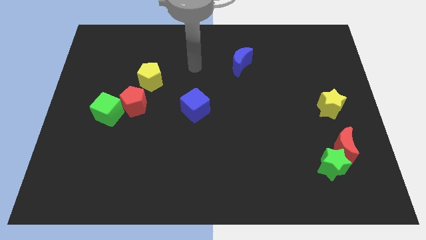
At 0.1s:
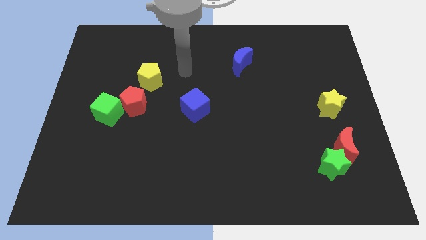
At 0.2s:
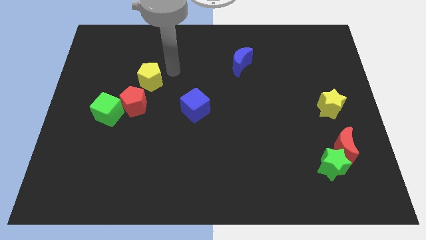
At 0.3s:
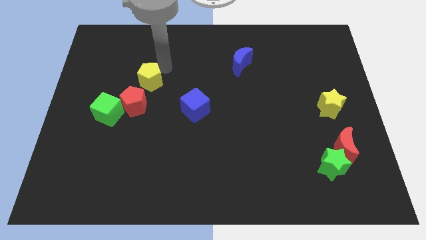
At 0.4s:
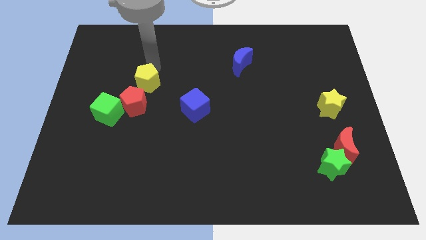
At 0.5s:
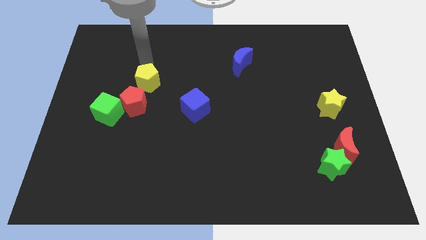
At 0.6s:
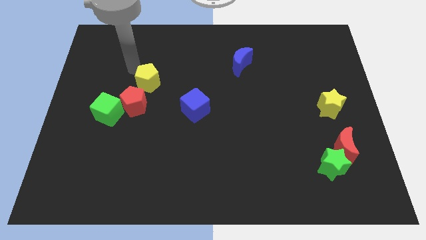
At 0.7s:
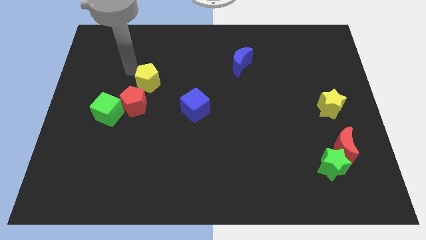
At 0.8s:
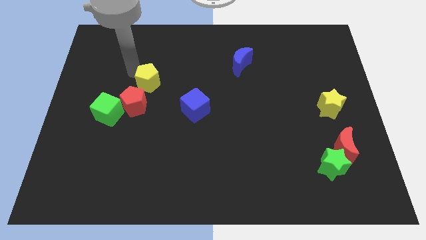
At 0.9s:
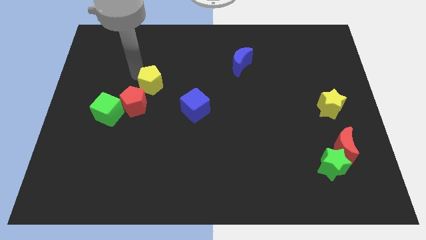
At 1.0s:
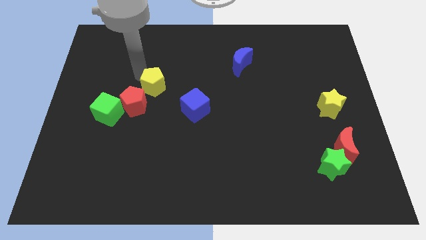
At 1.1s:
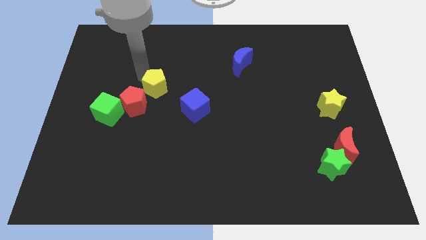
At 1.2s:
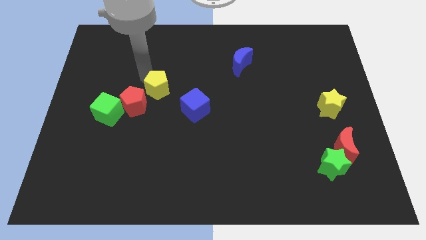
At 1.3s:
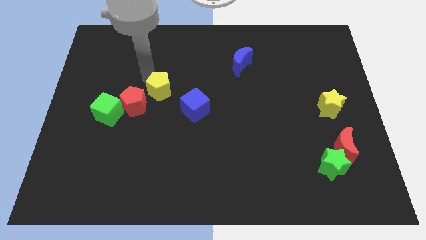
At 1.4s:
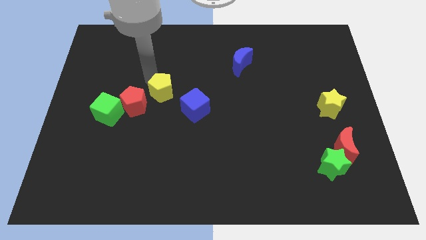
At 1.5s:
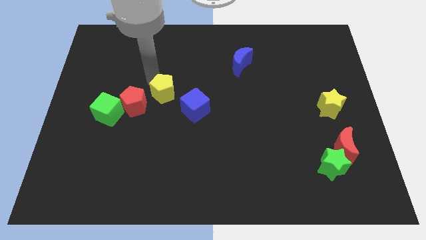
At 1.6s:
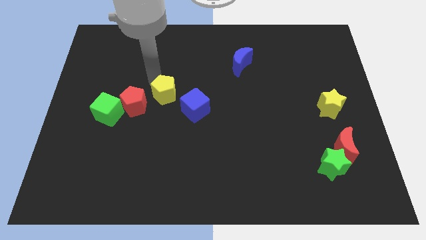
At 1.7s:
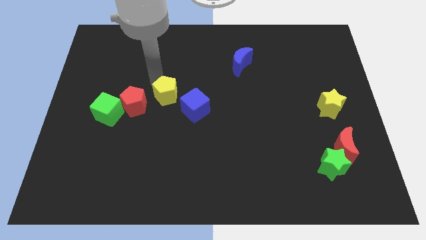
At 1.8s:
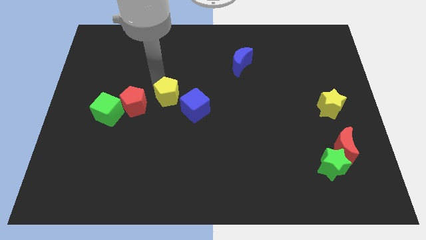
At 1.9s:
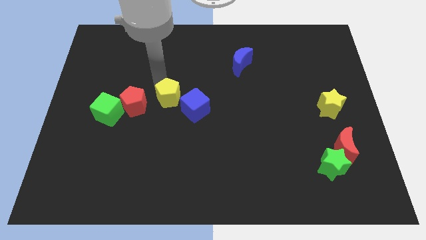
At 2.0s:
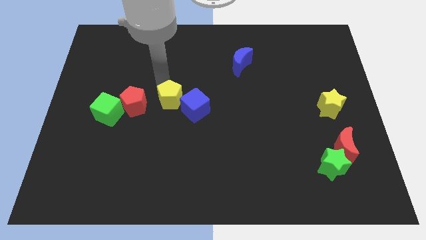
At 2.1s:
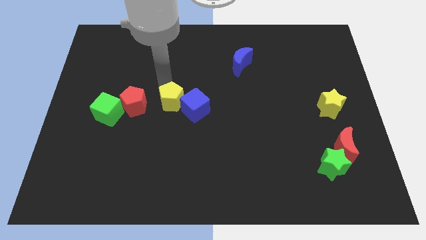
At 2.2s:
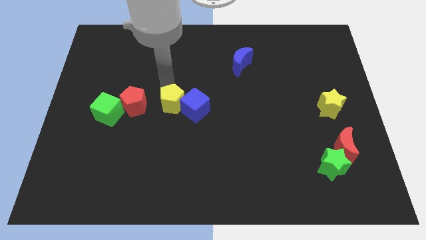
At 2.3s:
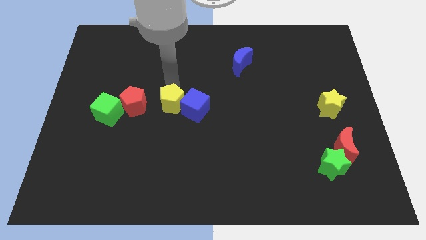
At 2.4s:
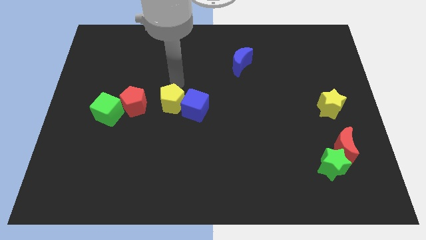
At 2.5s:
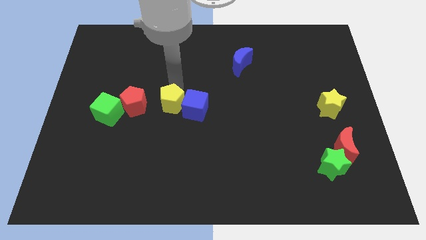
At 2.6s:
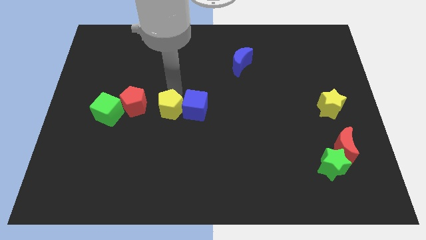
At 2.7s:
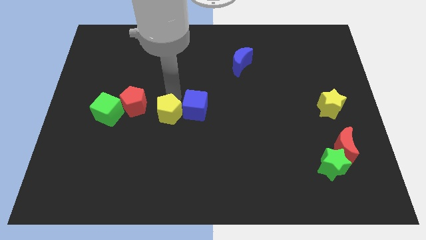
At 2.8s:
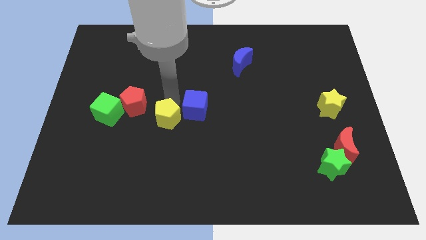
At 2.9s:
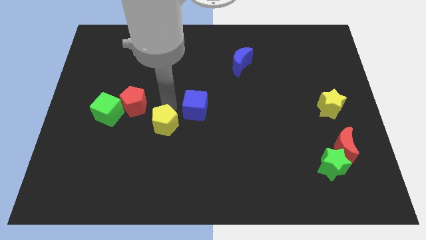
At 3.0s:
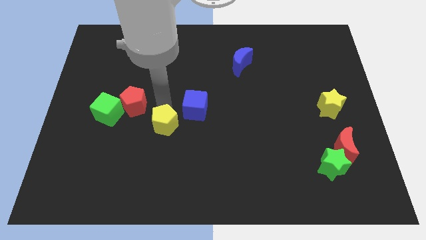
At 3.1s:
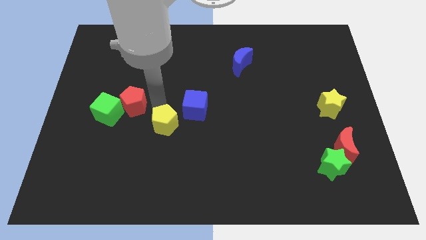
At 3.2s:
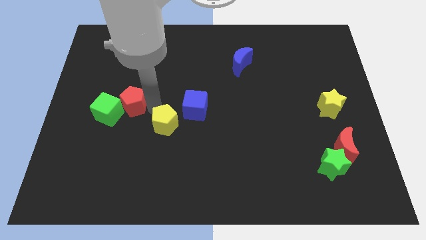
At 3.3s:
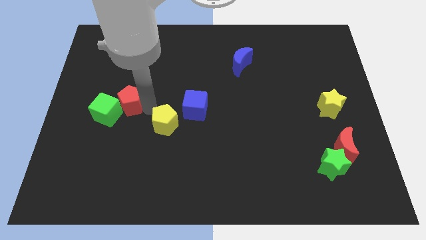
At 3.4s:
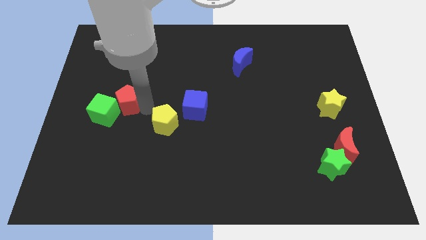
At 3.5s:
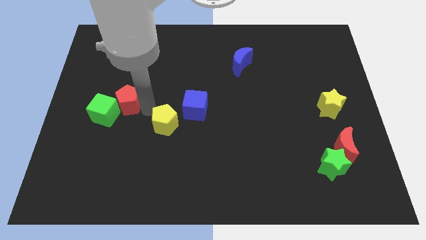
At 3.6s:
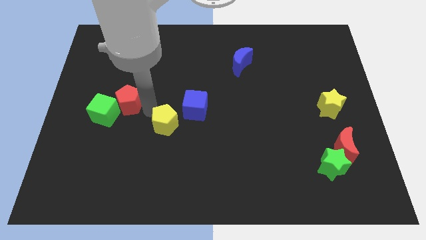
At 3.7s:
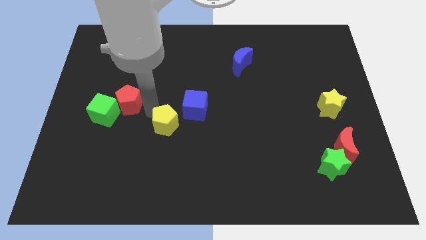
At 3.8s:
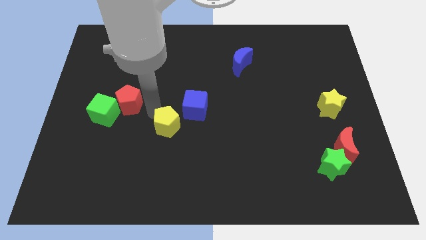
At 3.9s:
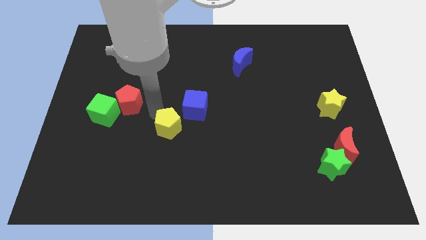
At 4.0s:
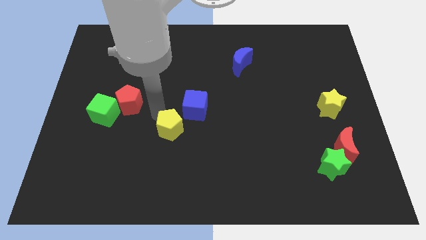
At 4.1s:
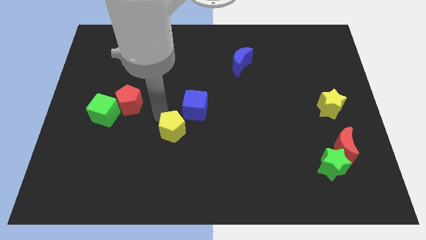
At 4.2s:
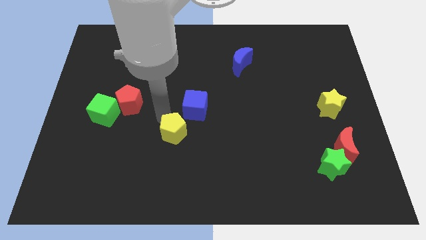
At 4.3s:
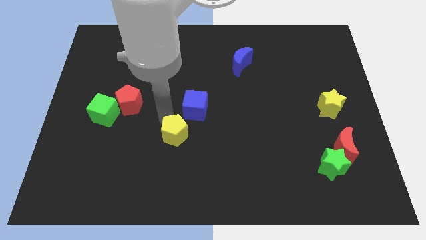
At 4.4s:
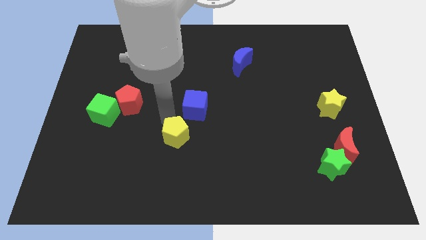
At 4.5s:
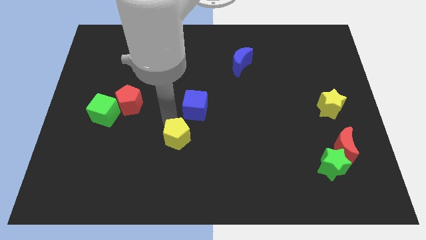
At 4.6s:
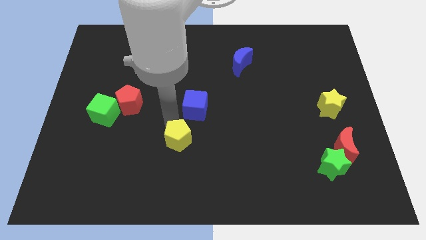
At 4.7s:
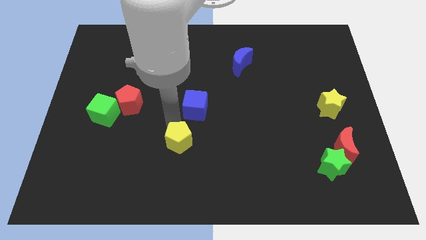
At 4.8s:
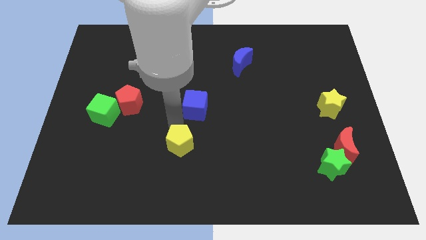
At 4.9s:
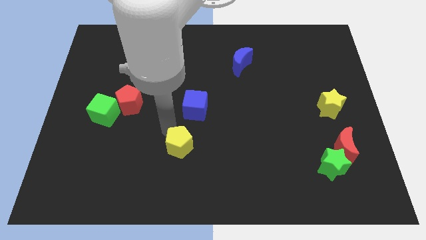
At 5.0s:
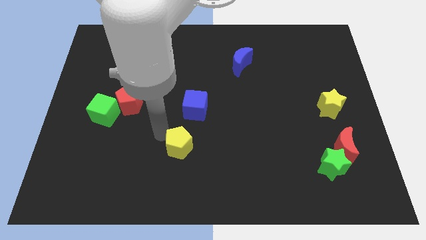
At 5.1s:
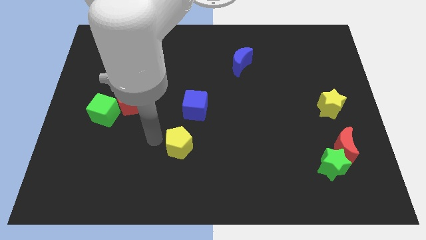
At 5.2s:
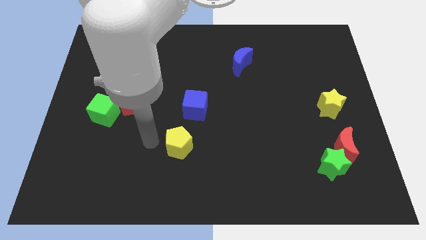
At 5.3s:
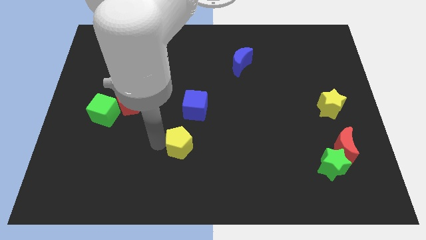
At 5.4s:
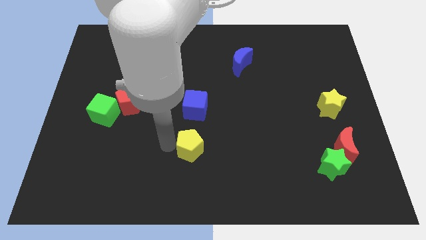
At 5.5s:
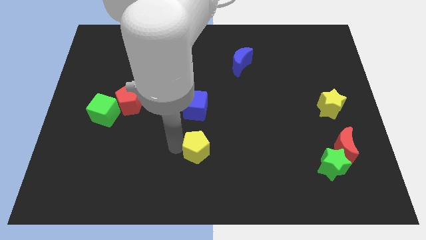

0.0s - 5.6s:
move the yellow pentagon down and right

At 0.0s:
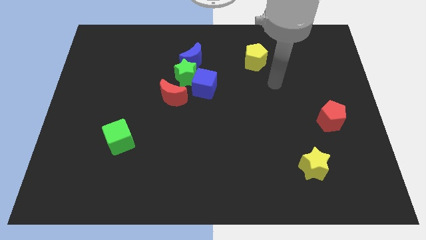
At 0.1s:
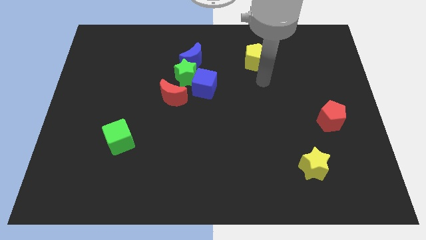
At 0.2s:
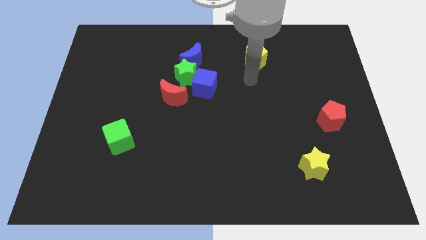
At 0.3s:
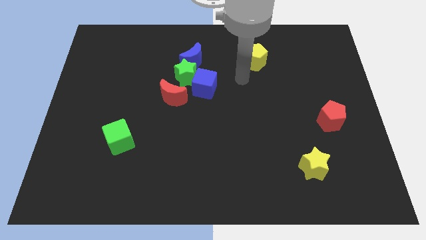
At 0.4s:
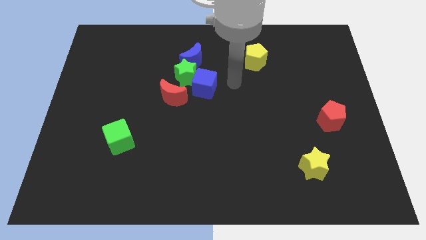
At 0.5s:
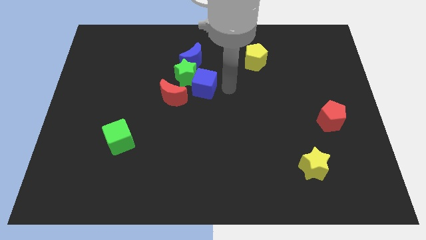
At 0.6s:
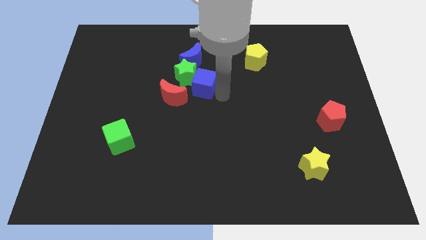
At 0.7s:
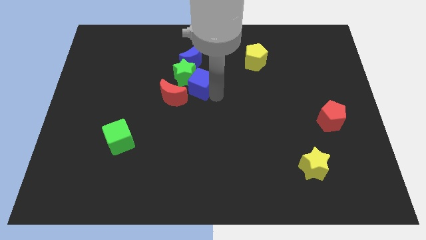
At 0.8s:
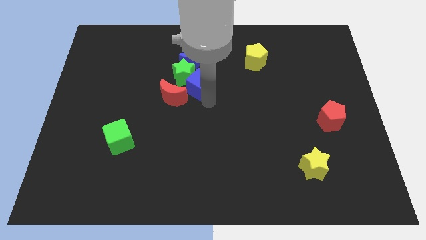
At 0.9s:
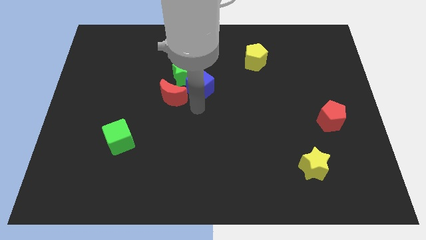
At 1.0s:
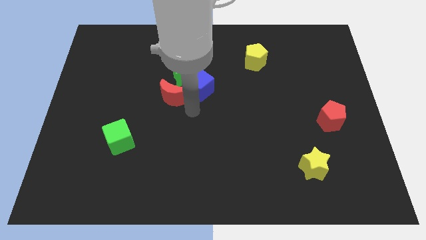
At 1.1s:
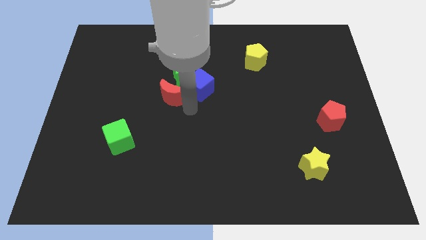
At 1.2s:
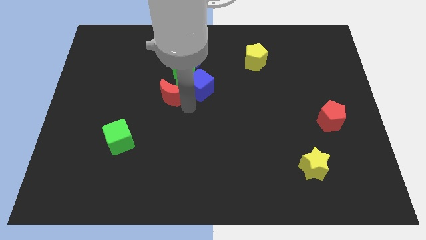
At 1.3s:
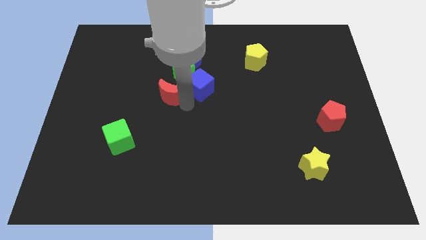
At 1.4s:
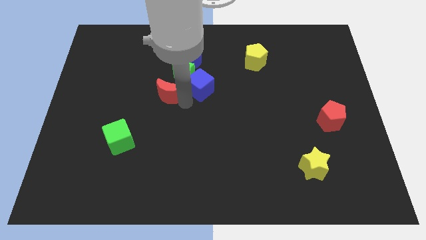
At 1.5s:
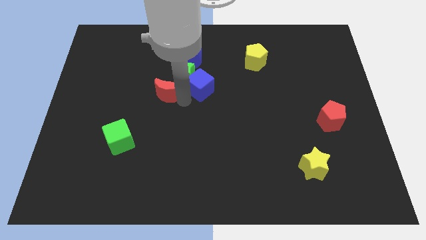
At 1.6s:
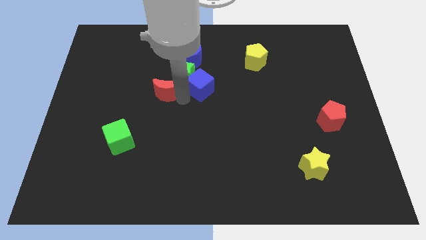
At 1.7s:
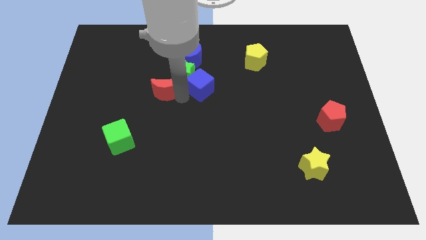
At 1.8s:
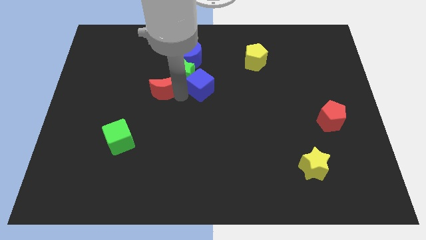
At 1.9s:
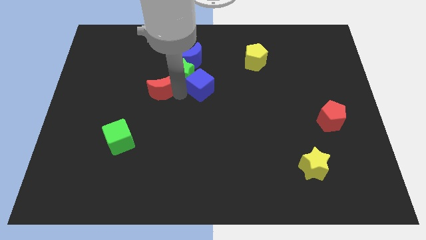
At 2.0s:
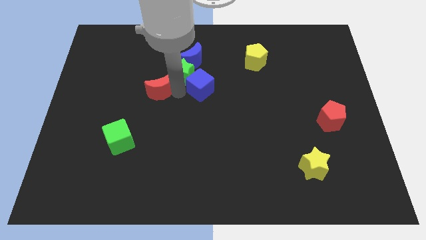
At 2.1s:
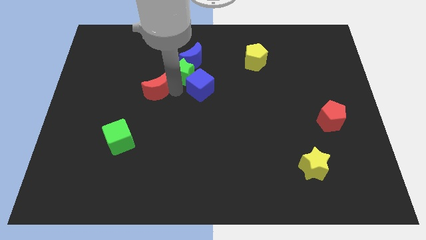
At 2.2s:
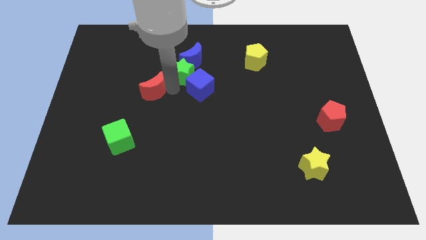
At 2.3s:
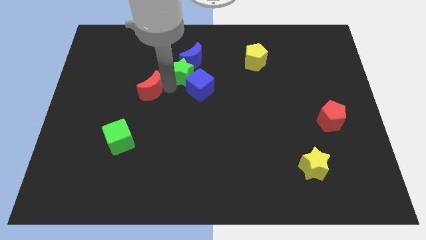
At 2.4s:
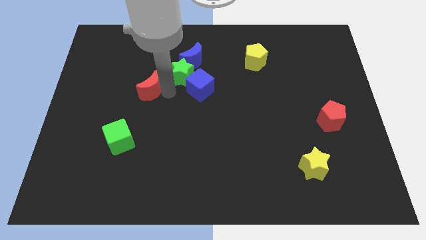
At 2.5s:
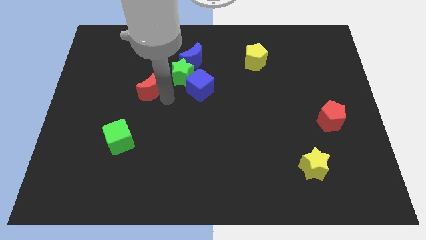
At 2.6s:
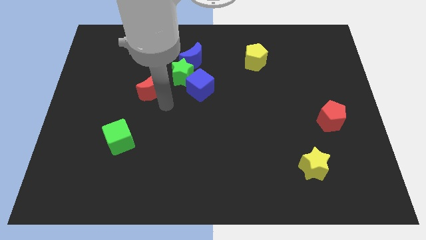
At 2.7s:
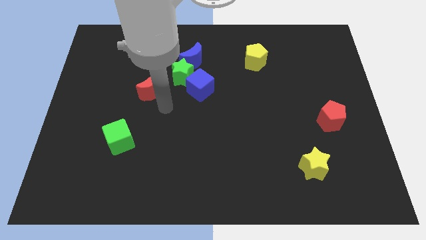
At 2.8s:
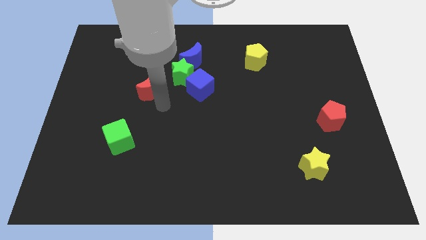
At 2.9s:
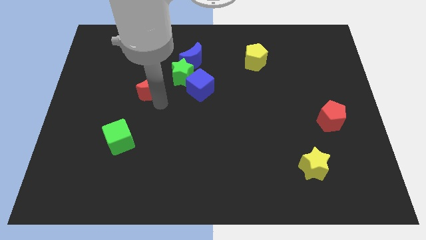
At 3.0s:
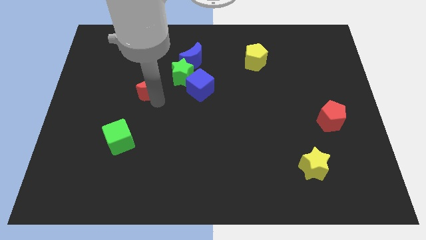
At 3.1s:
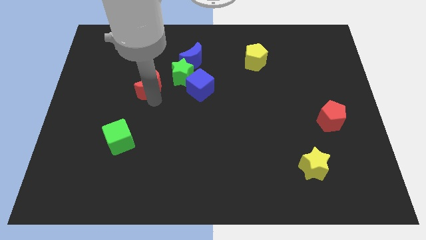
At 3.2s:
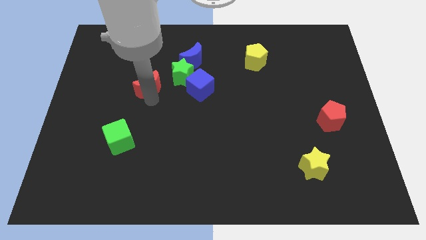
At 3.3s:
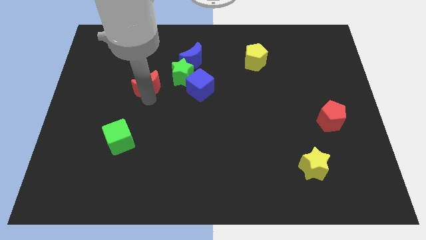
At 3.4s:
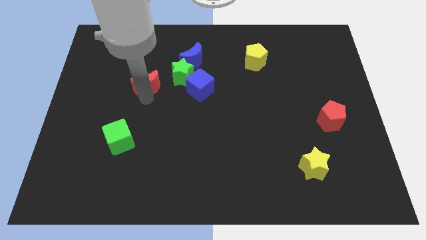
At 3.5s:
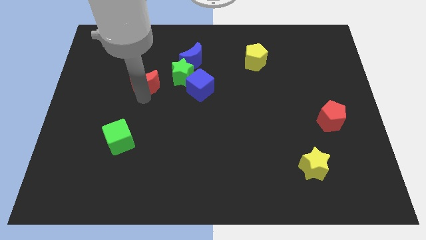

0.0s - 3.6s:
slide the red moon diagonally upwards and left somewhat
